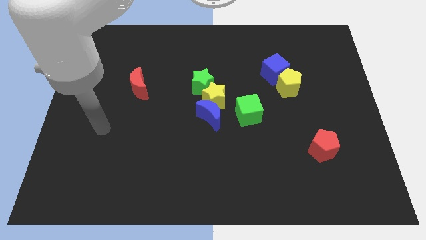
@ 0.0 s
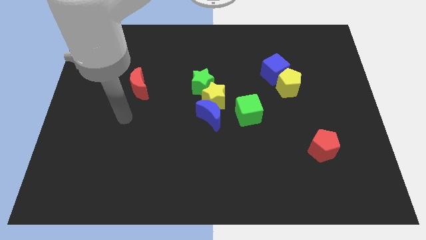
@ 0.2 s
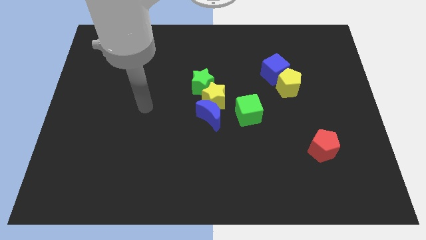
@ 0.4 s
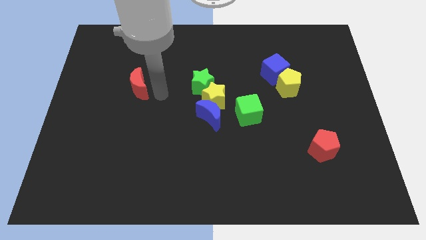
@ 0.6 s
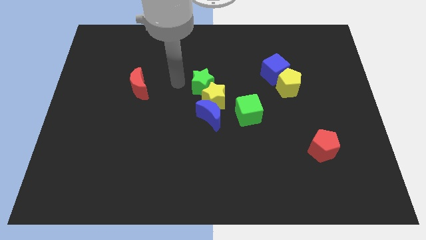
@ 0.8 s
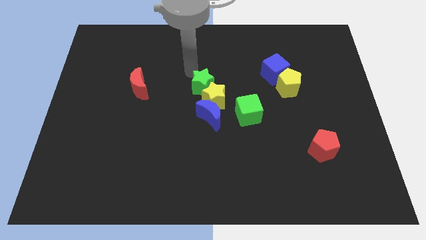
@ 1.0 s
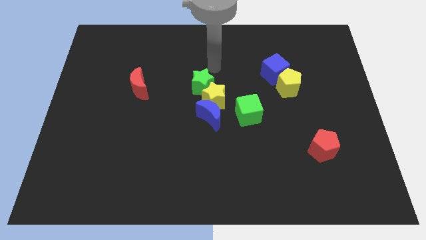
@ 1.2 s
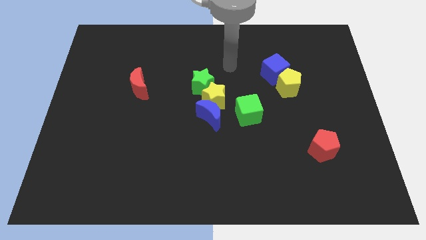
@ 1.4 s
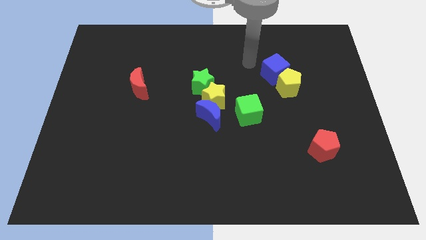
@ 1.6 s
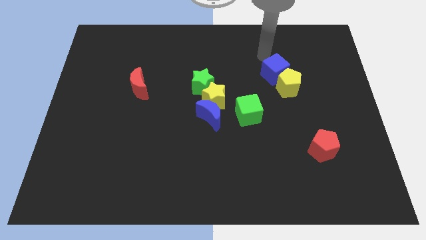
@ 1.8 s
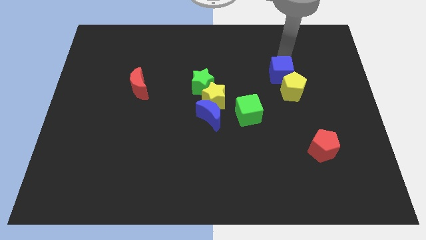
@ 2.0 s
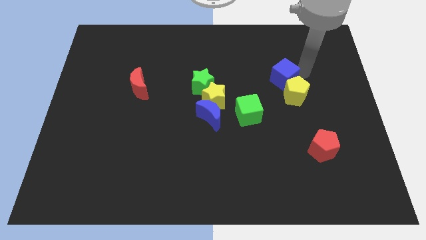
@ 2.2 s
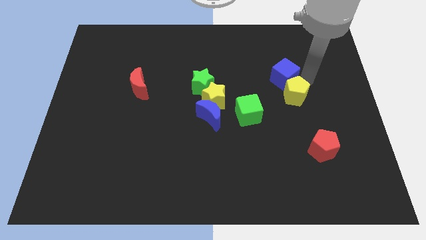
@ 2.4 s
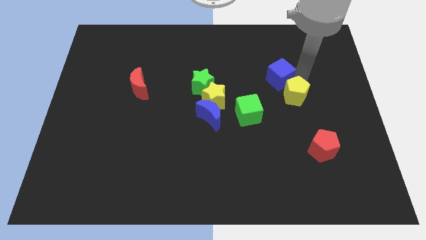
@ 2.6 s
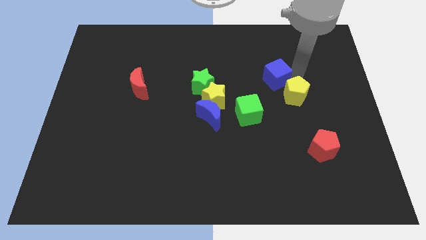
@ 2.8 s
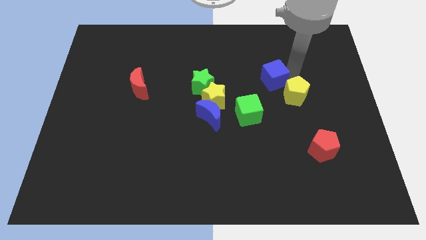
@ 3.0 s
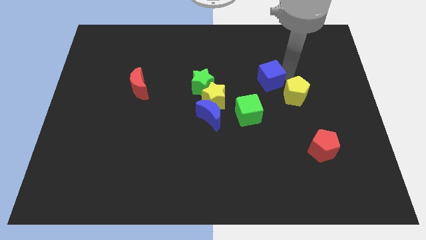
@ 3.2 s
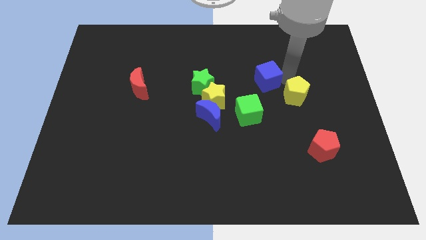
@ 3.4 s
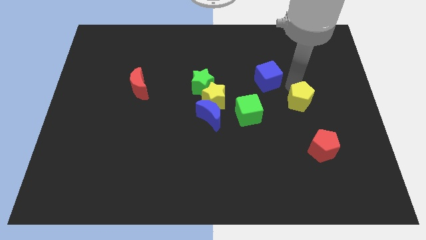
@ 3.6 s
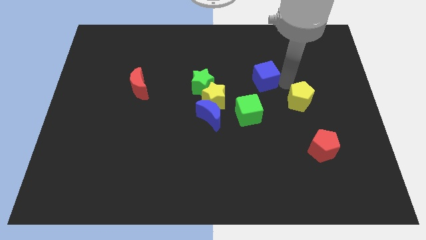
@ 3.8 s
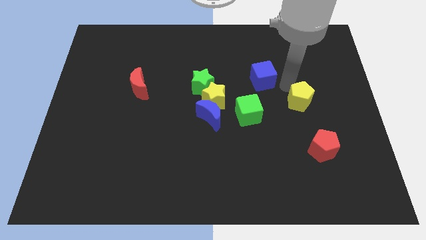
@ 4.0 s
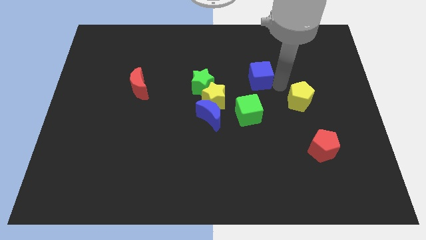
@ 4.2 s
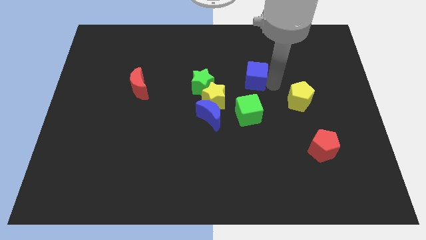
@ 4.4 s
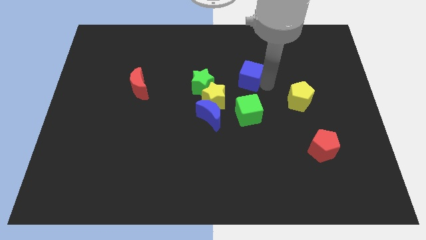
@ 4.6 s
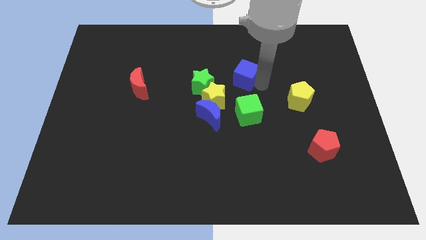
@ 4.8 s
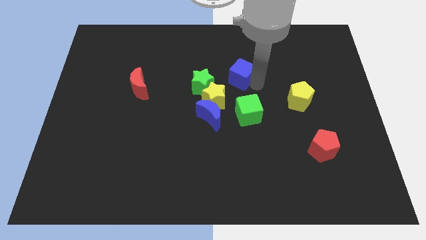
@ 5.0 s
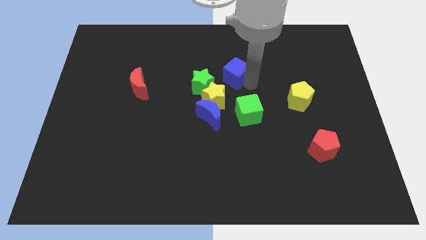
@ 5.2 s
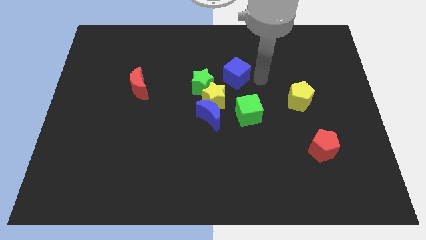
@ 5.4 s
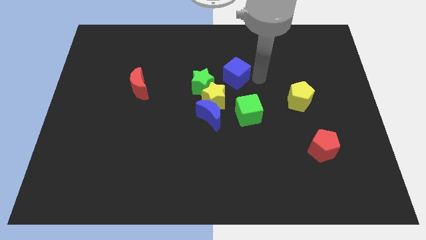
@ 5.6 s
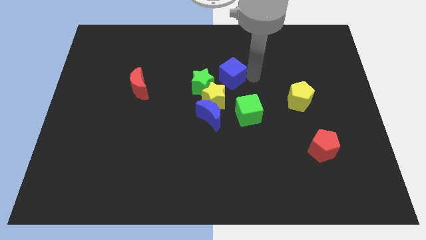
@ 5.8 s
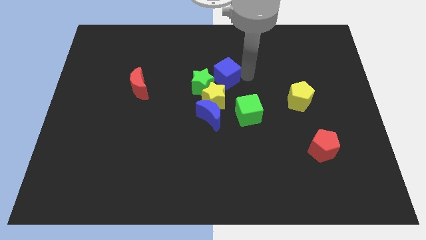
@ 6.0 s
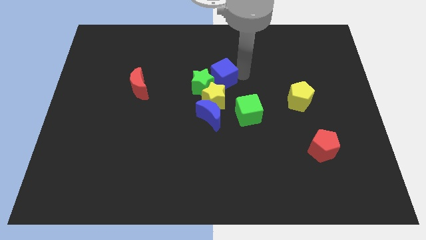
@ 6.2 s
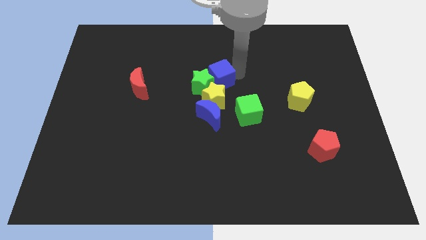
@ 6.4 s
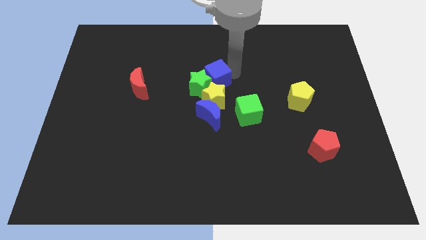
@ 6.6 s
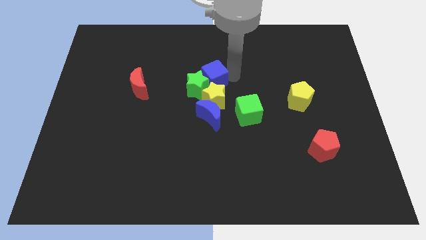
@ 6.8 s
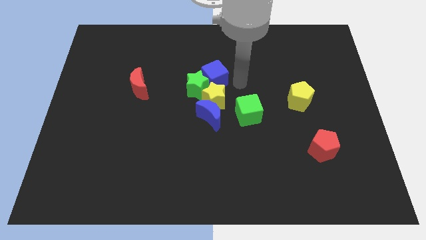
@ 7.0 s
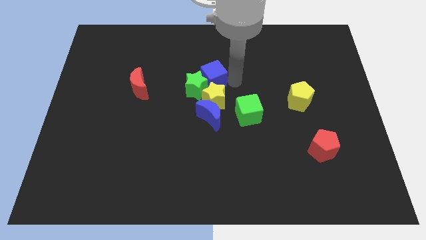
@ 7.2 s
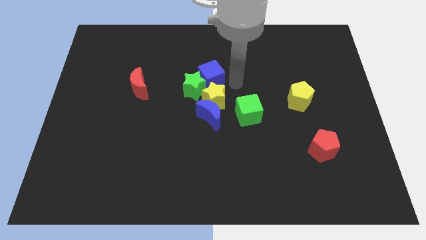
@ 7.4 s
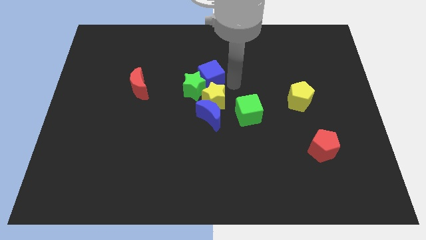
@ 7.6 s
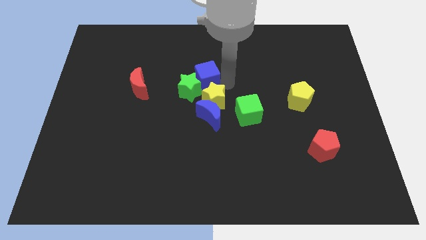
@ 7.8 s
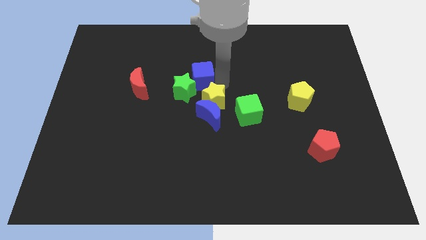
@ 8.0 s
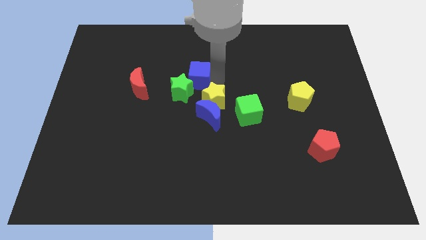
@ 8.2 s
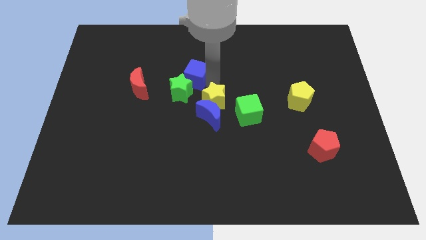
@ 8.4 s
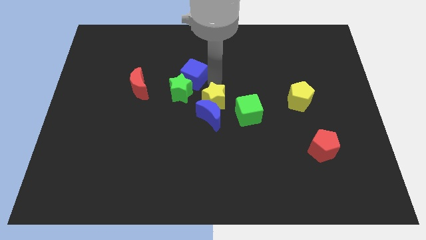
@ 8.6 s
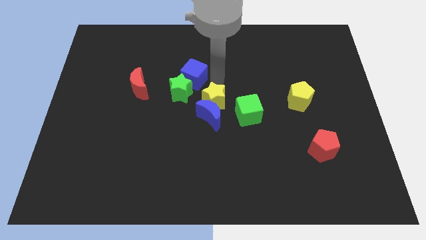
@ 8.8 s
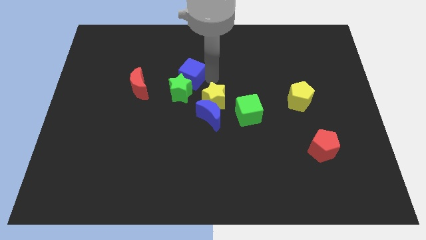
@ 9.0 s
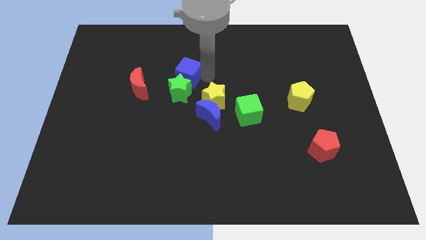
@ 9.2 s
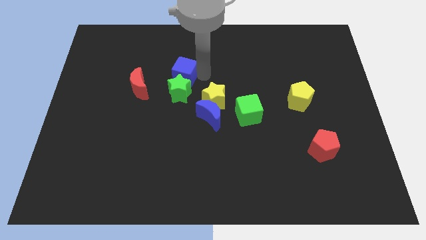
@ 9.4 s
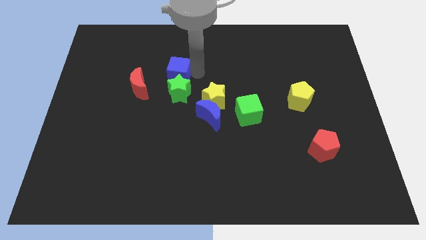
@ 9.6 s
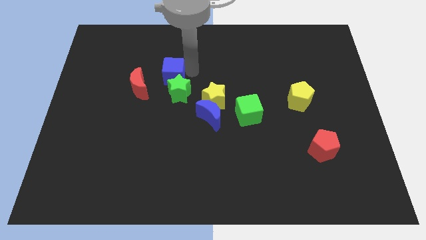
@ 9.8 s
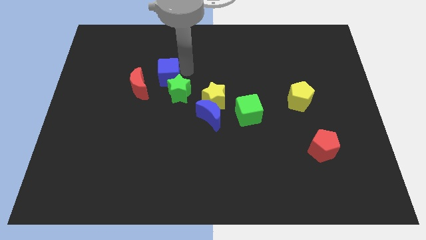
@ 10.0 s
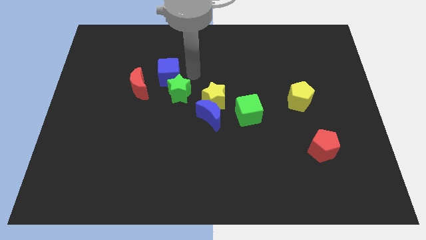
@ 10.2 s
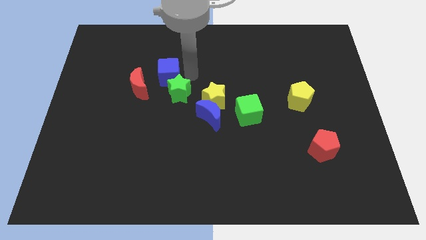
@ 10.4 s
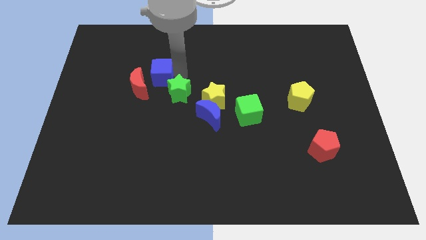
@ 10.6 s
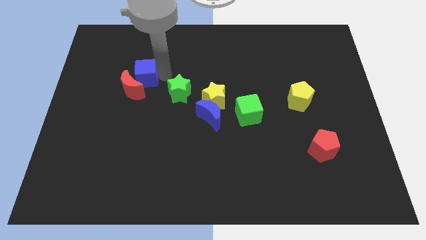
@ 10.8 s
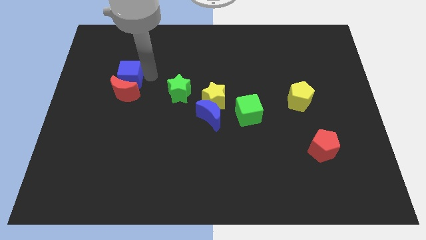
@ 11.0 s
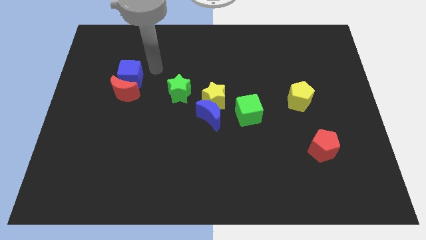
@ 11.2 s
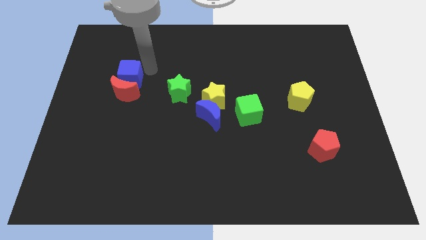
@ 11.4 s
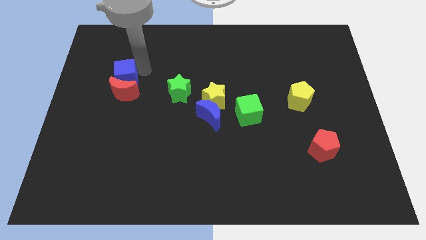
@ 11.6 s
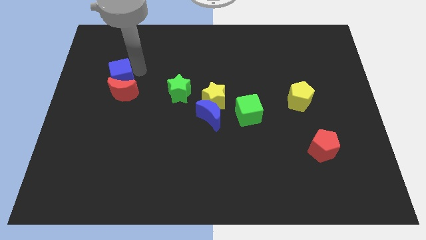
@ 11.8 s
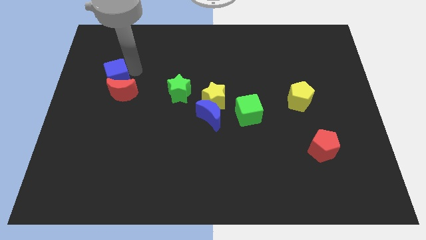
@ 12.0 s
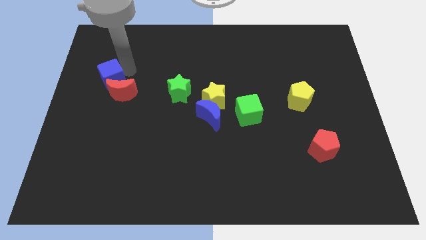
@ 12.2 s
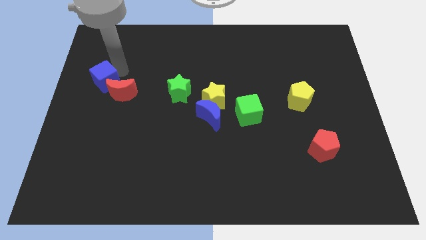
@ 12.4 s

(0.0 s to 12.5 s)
push the blue cube to the center left
